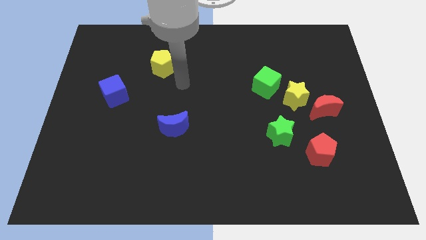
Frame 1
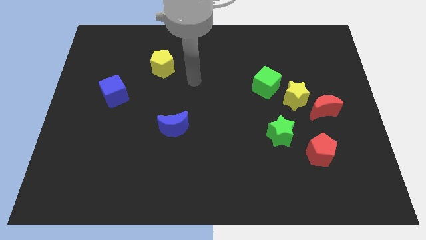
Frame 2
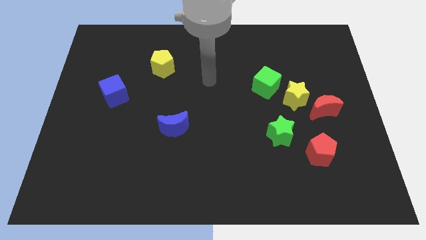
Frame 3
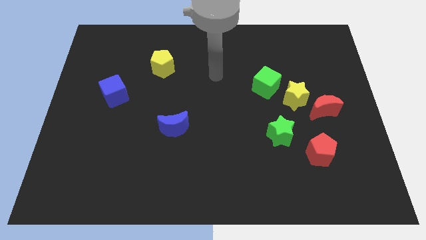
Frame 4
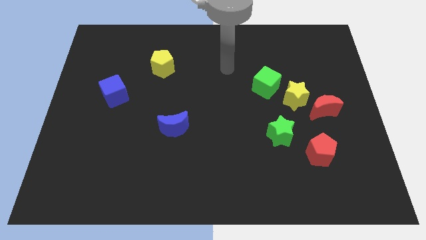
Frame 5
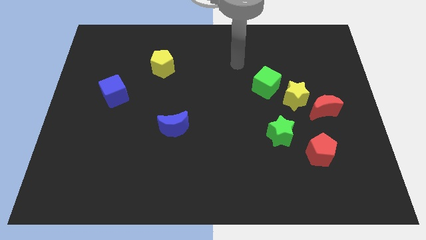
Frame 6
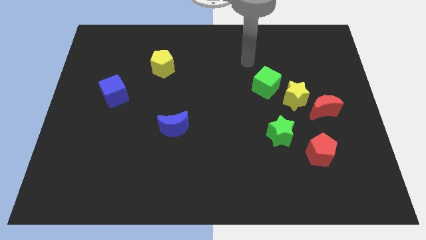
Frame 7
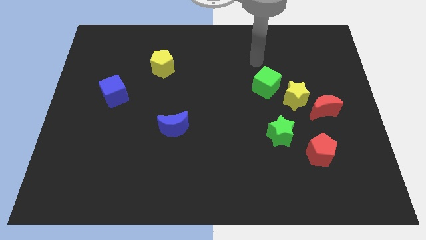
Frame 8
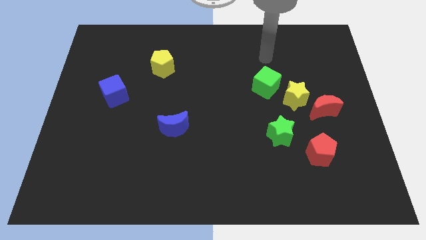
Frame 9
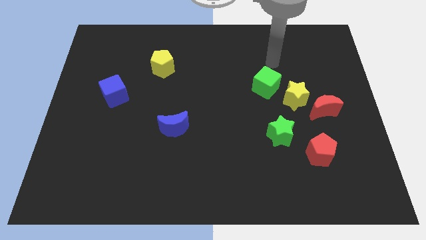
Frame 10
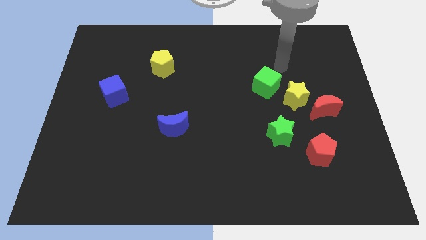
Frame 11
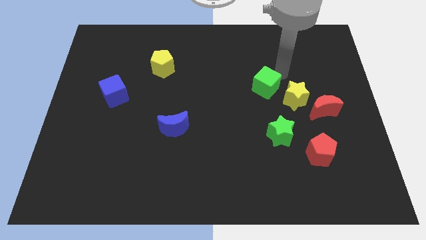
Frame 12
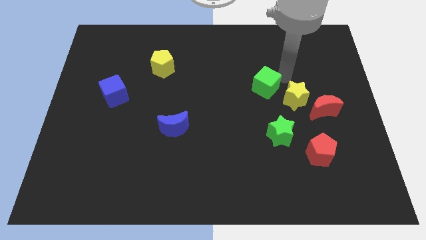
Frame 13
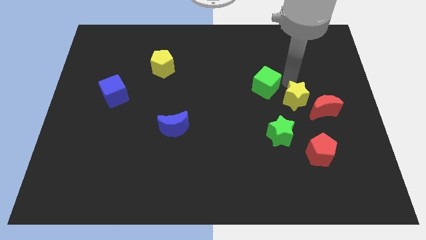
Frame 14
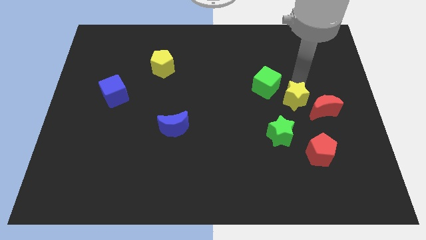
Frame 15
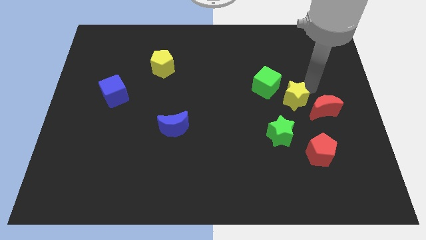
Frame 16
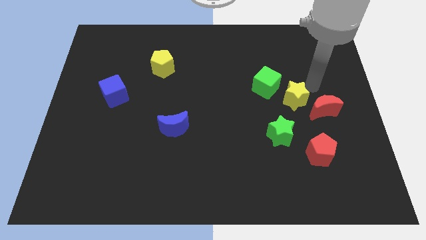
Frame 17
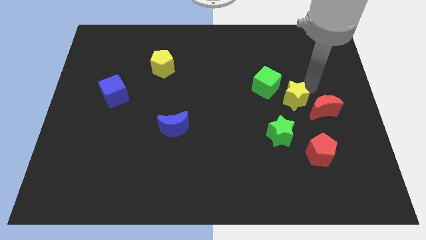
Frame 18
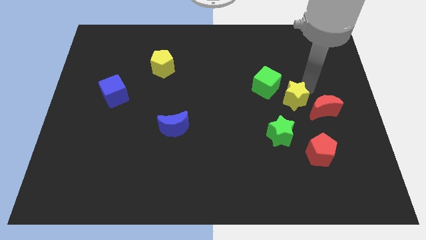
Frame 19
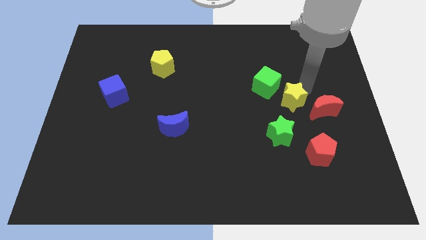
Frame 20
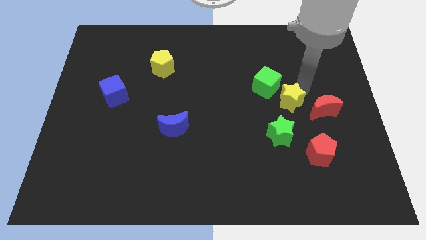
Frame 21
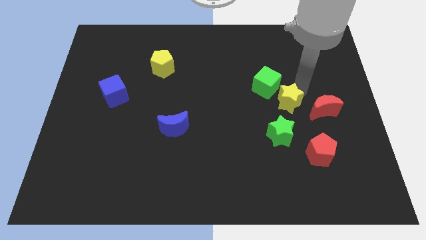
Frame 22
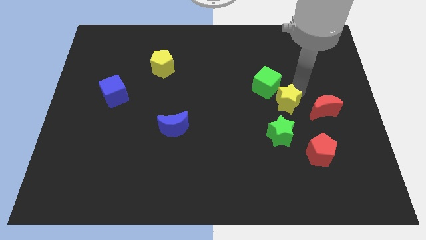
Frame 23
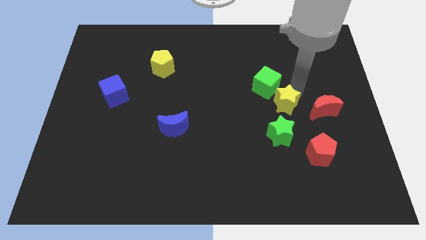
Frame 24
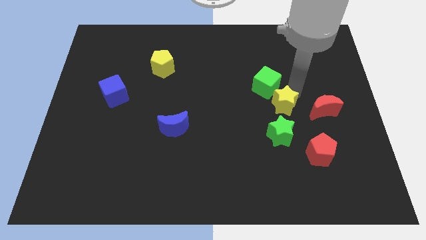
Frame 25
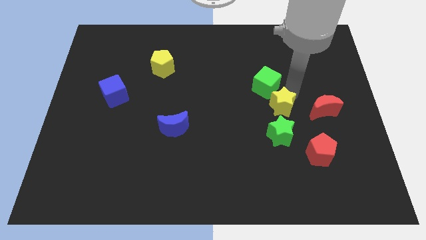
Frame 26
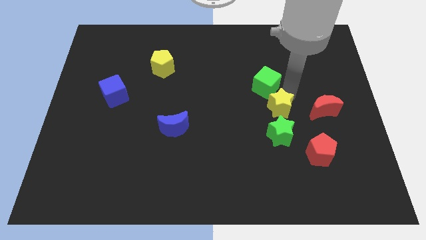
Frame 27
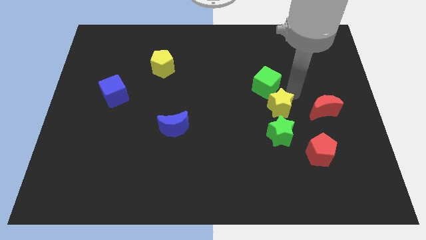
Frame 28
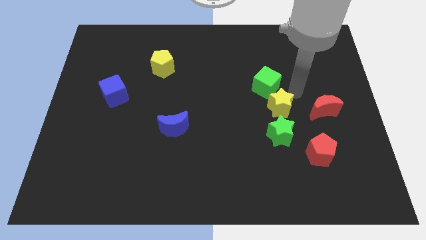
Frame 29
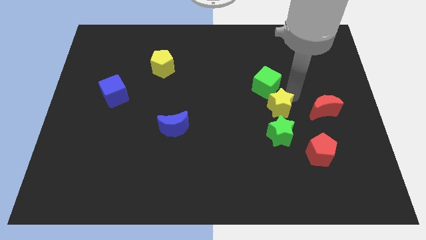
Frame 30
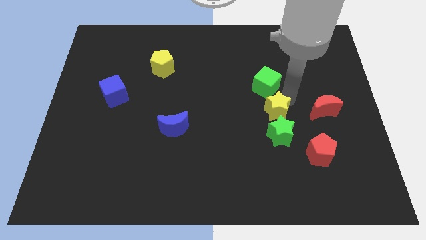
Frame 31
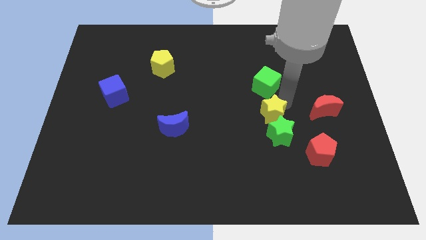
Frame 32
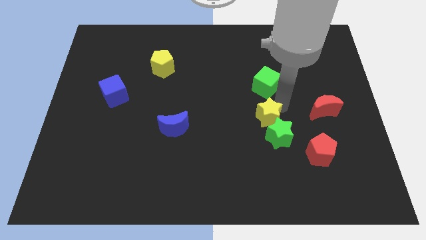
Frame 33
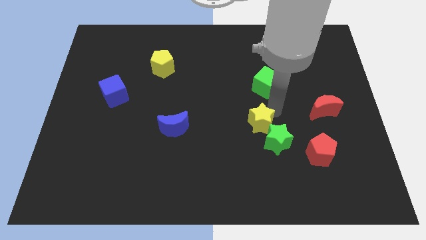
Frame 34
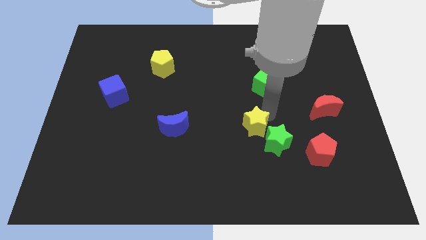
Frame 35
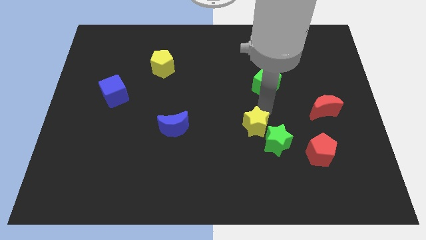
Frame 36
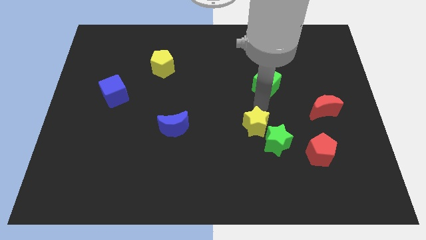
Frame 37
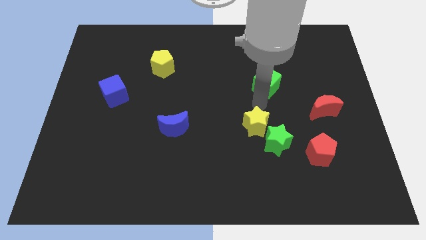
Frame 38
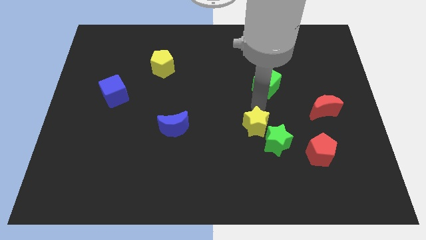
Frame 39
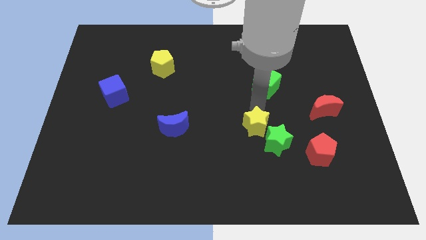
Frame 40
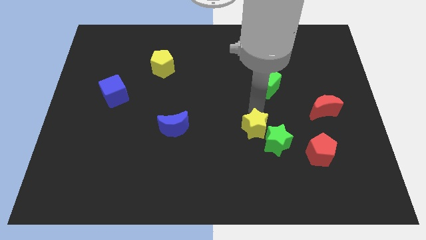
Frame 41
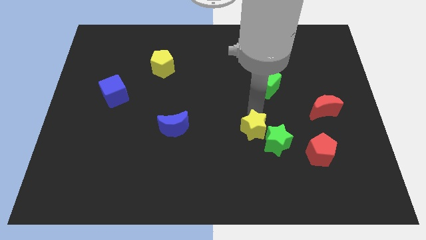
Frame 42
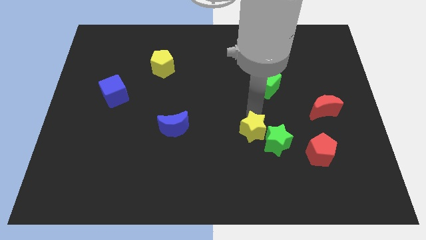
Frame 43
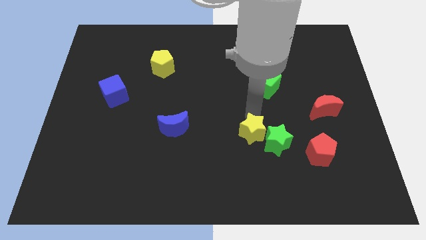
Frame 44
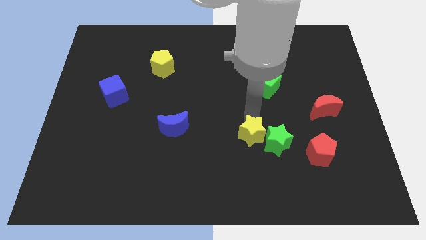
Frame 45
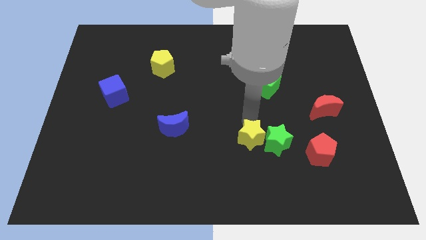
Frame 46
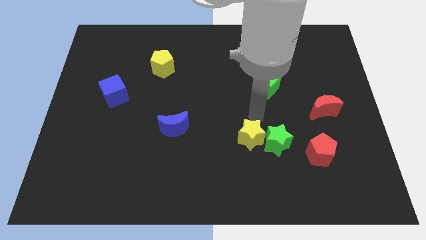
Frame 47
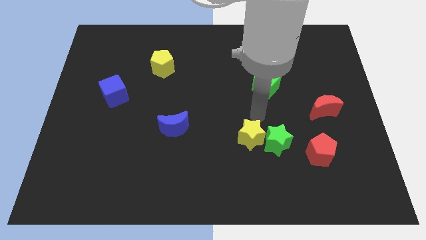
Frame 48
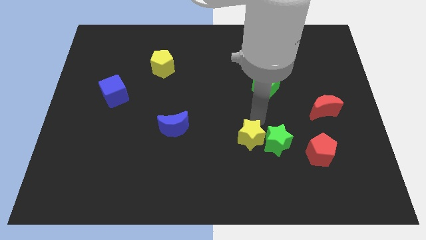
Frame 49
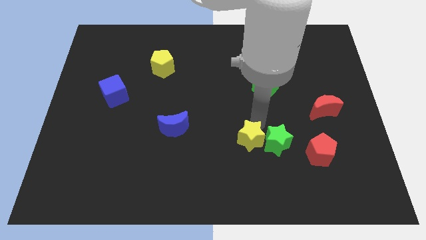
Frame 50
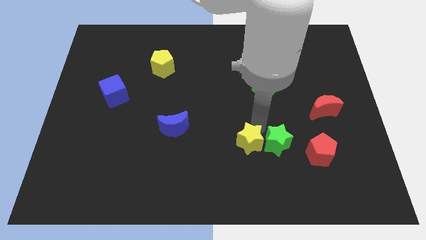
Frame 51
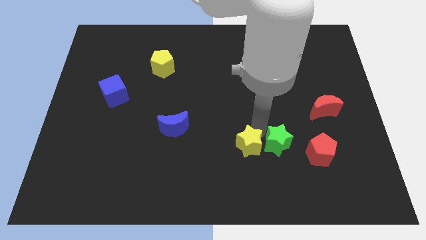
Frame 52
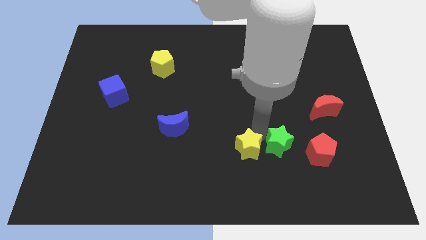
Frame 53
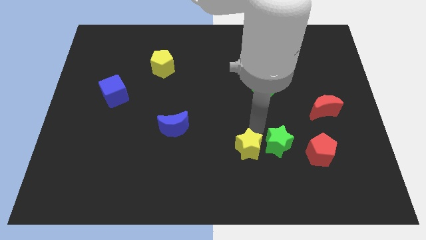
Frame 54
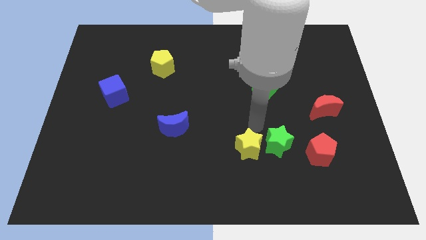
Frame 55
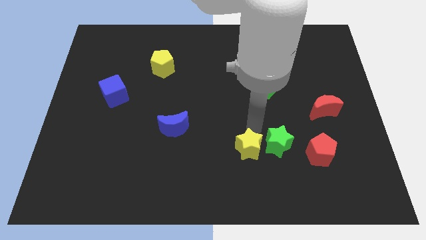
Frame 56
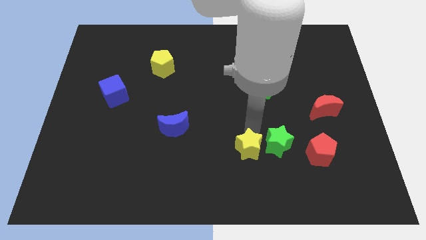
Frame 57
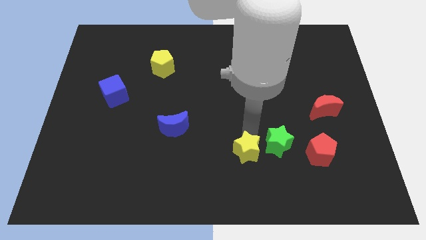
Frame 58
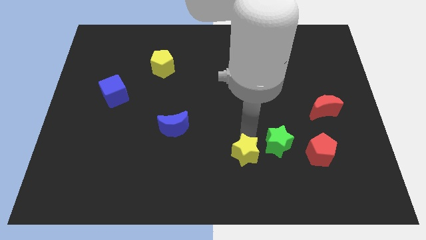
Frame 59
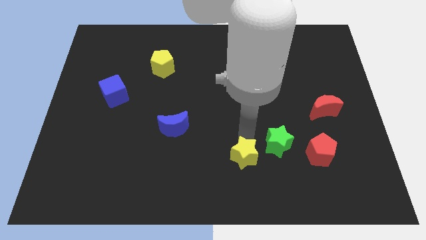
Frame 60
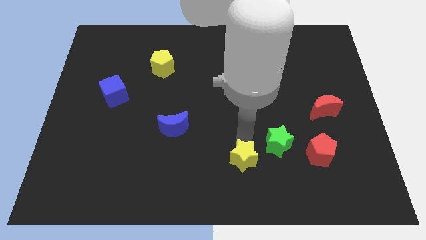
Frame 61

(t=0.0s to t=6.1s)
put the yellow star to the bottom side
